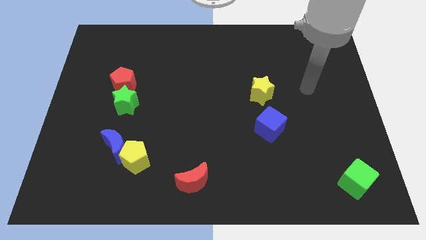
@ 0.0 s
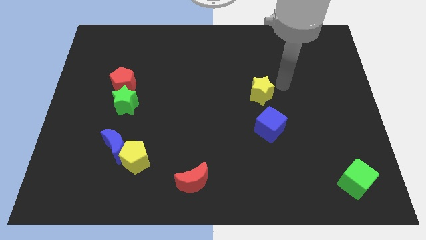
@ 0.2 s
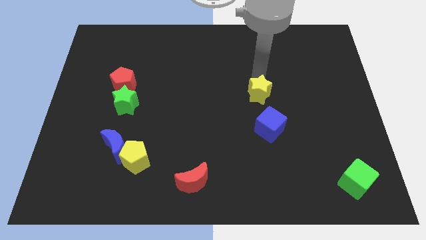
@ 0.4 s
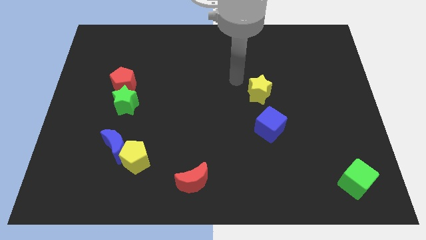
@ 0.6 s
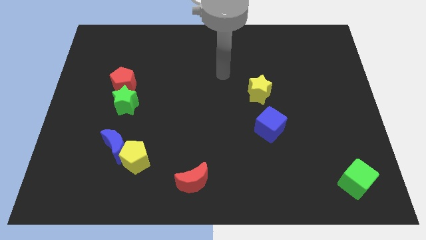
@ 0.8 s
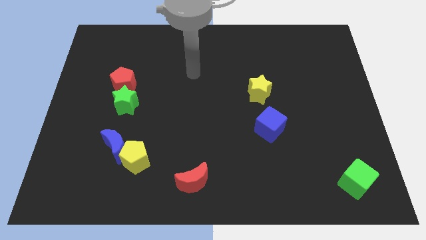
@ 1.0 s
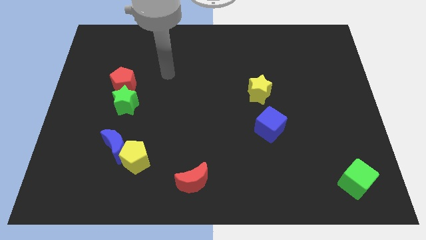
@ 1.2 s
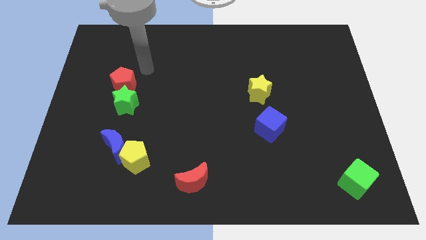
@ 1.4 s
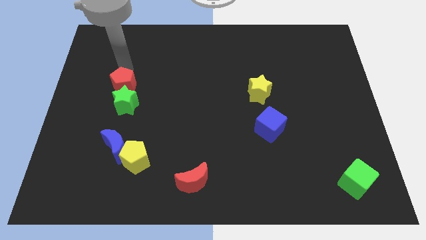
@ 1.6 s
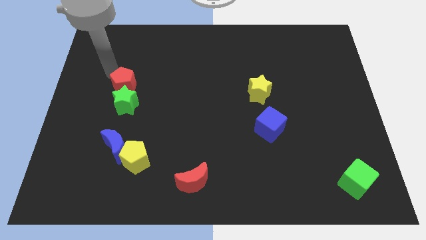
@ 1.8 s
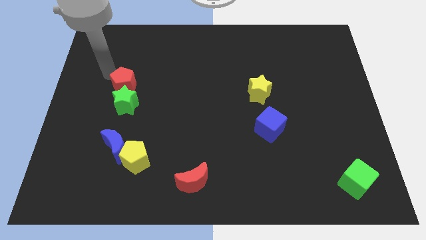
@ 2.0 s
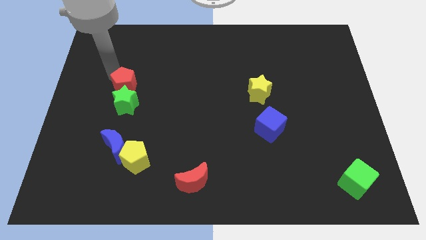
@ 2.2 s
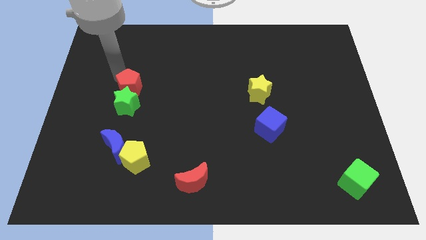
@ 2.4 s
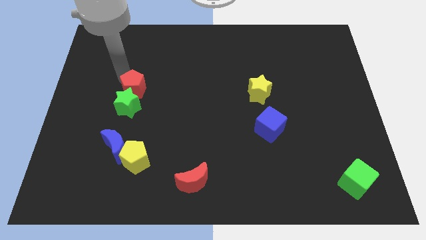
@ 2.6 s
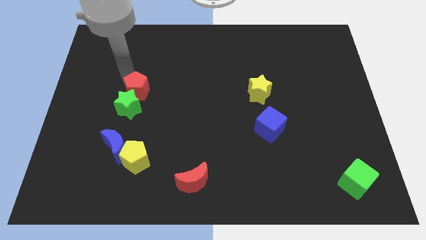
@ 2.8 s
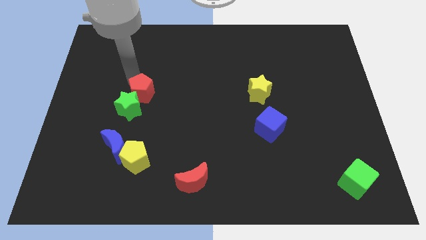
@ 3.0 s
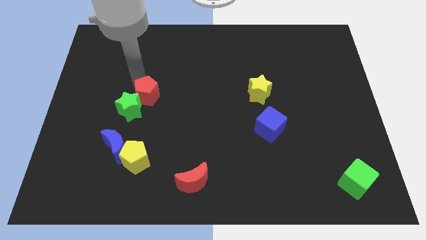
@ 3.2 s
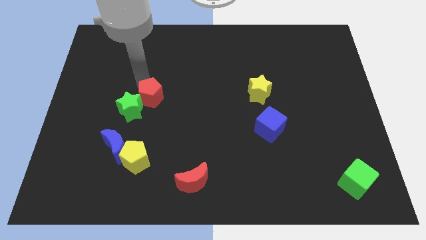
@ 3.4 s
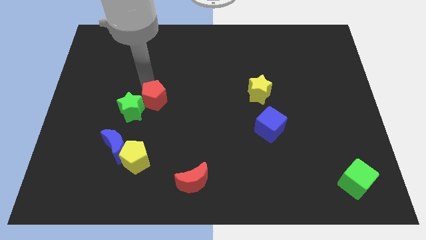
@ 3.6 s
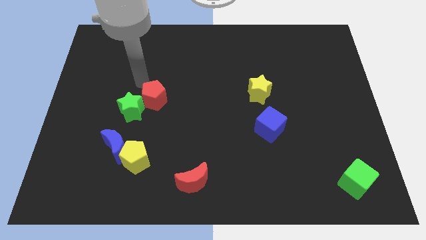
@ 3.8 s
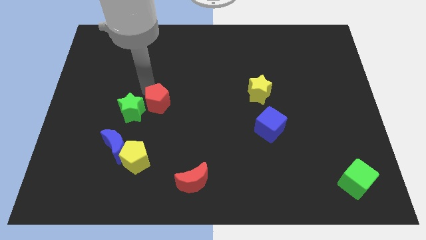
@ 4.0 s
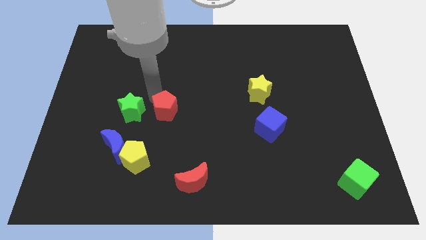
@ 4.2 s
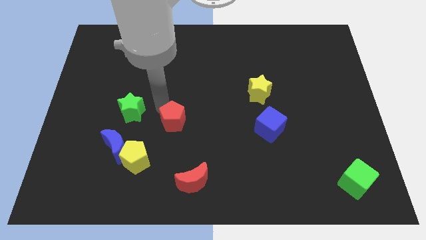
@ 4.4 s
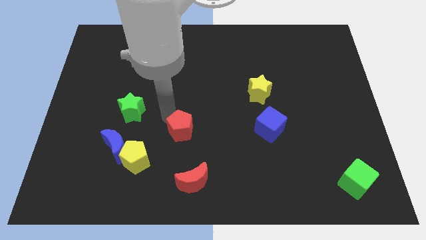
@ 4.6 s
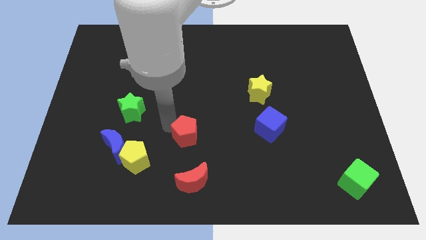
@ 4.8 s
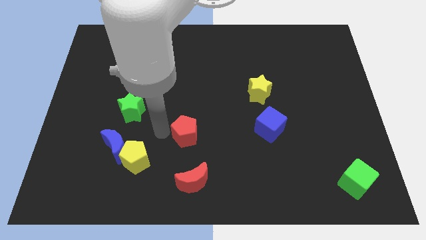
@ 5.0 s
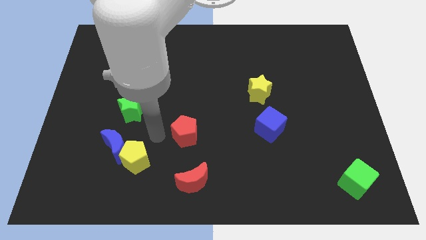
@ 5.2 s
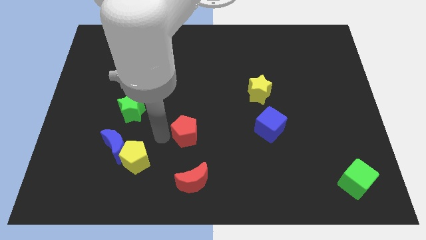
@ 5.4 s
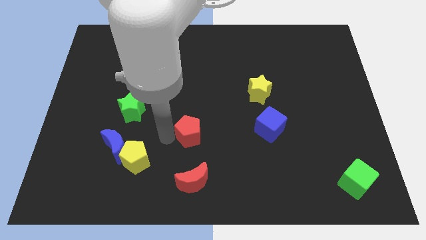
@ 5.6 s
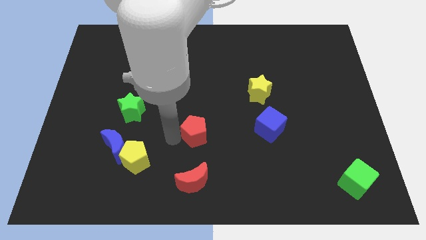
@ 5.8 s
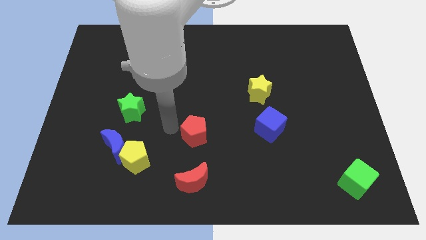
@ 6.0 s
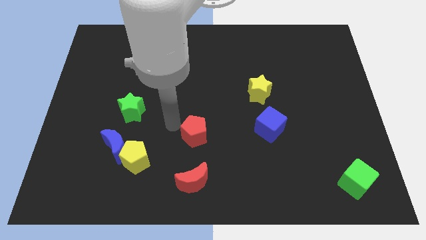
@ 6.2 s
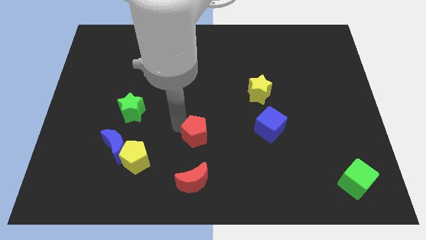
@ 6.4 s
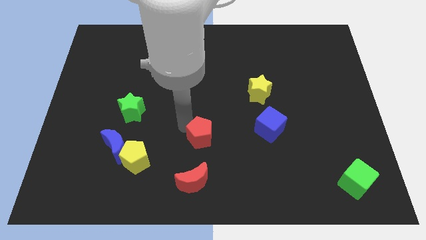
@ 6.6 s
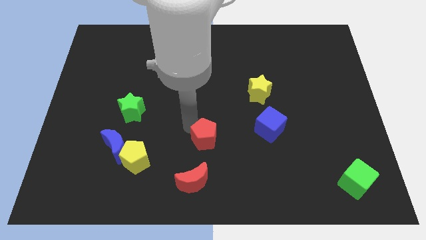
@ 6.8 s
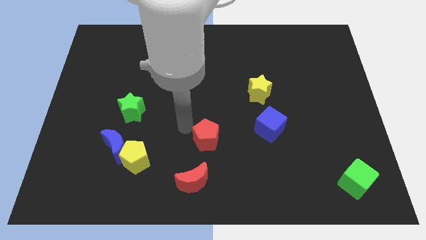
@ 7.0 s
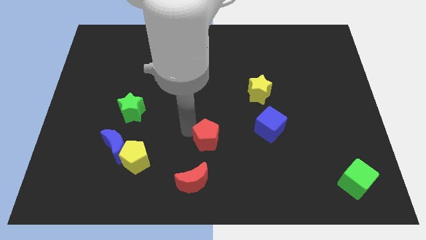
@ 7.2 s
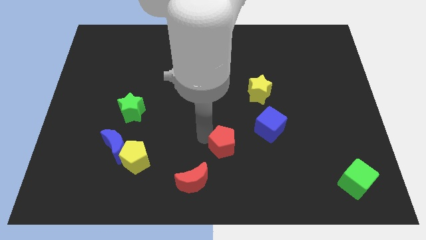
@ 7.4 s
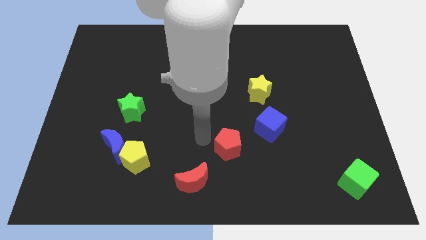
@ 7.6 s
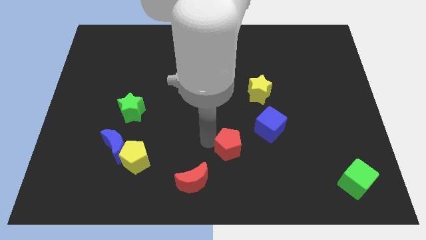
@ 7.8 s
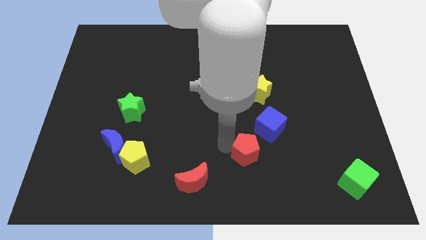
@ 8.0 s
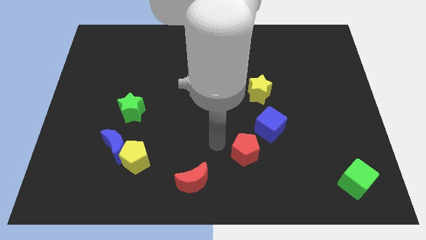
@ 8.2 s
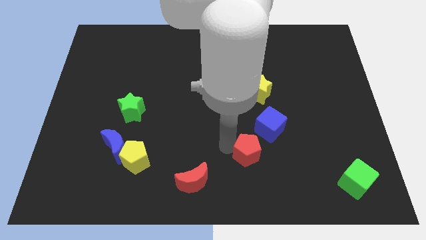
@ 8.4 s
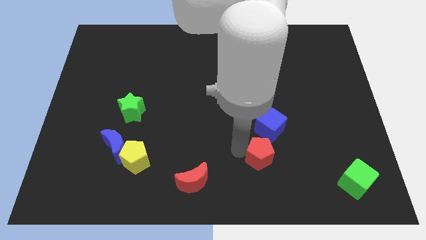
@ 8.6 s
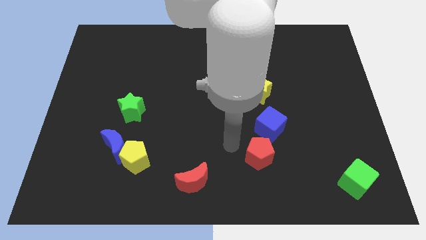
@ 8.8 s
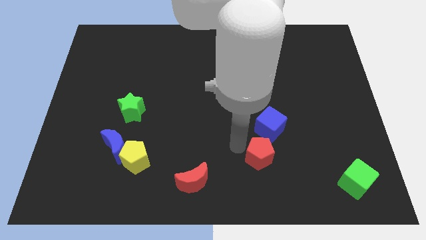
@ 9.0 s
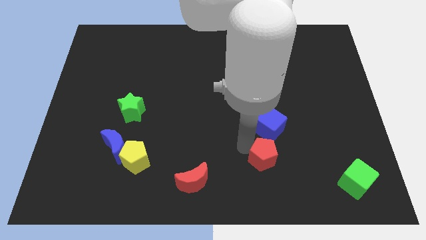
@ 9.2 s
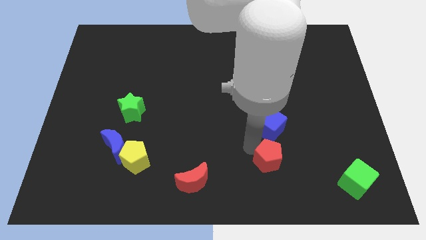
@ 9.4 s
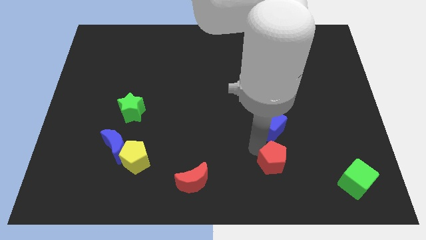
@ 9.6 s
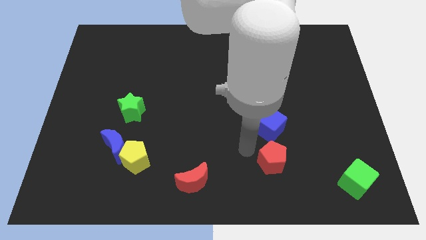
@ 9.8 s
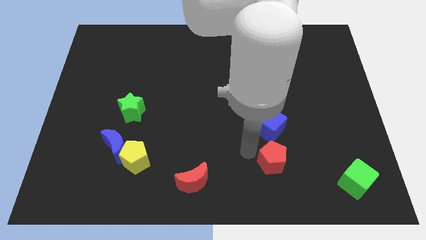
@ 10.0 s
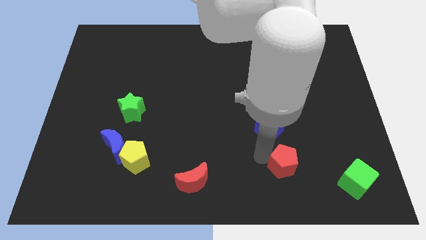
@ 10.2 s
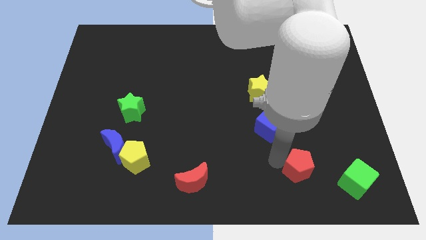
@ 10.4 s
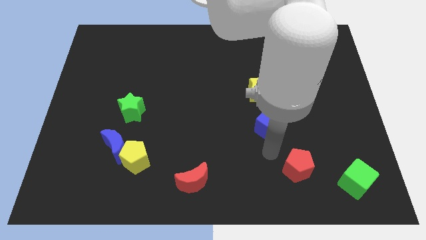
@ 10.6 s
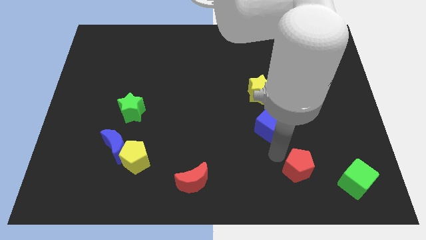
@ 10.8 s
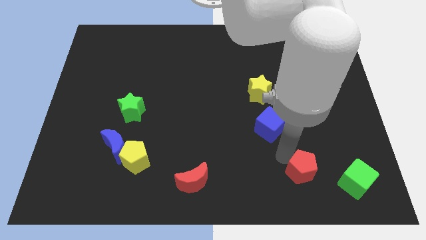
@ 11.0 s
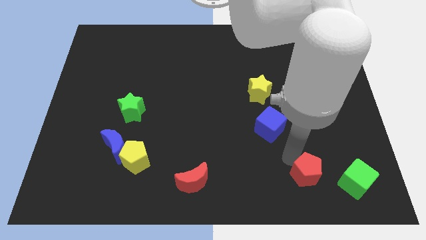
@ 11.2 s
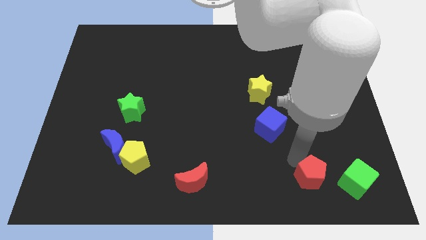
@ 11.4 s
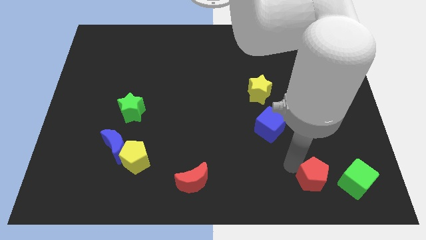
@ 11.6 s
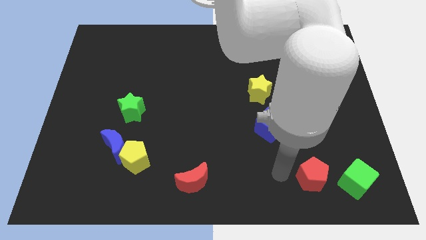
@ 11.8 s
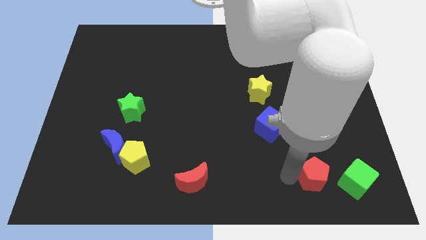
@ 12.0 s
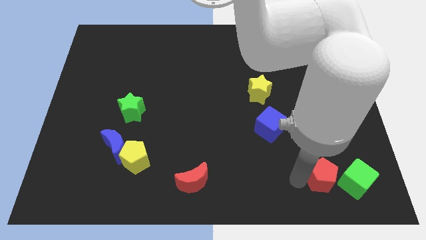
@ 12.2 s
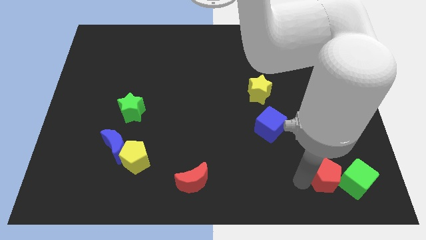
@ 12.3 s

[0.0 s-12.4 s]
move the red pentagon close to the green cube

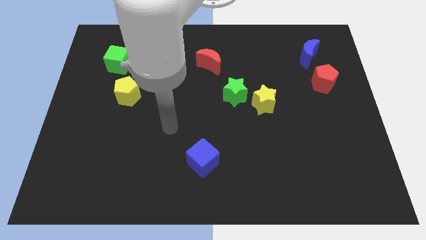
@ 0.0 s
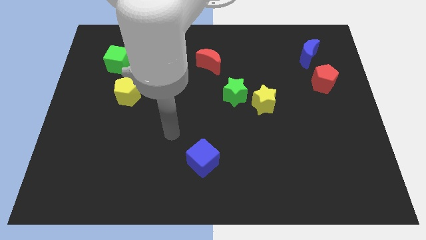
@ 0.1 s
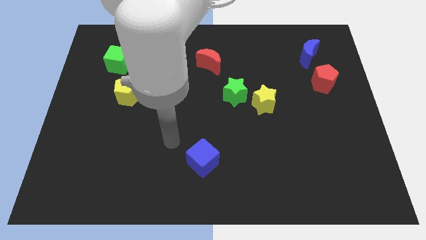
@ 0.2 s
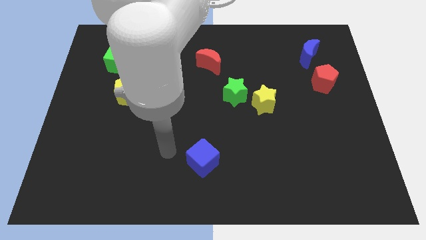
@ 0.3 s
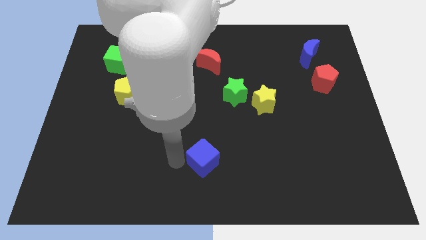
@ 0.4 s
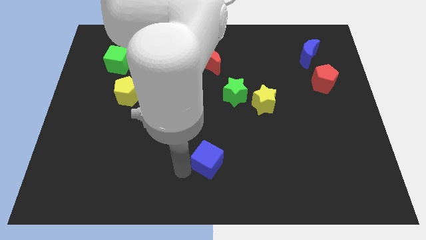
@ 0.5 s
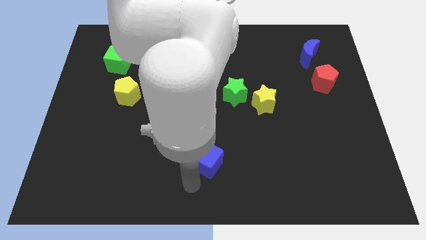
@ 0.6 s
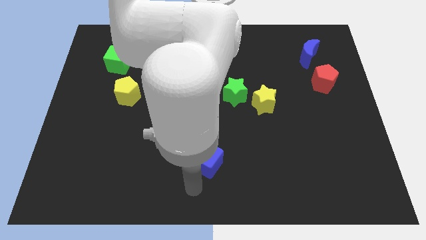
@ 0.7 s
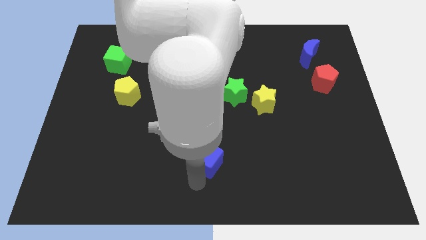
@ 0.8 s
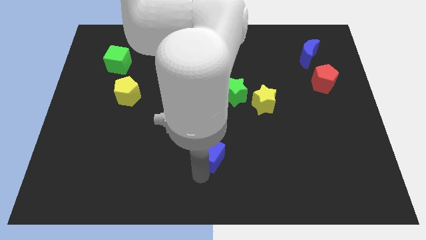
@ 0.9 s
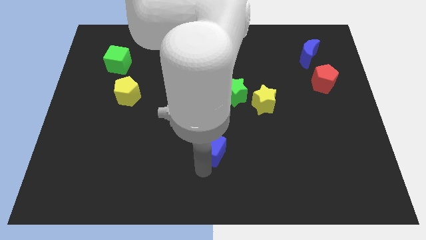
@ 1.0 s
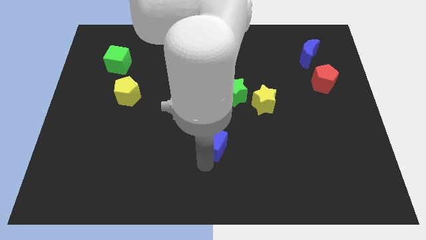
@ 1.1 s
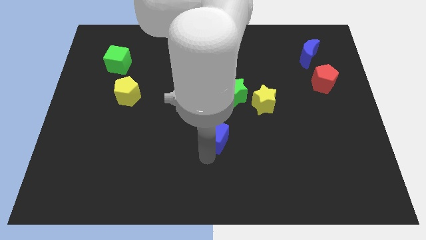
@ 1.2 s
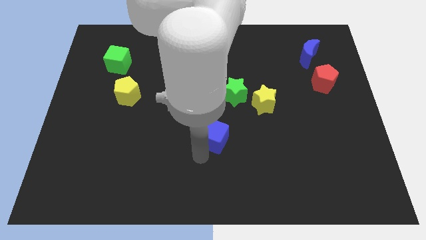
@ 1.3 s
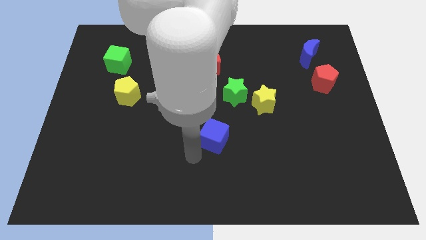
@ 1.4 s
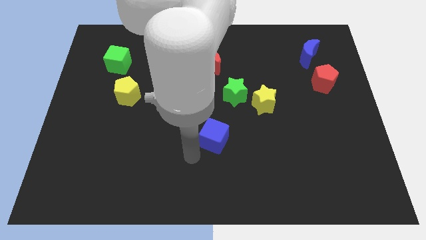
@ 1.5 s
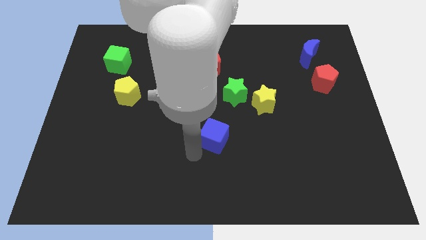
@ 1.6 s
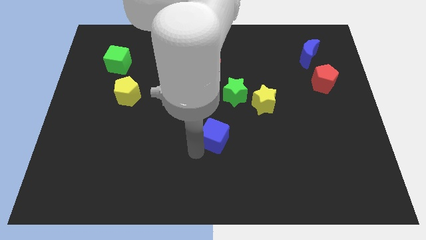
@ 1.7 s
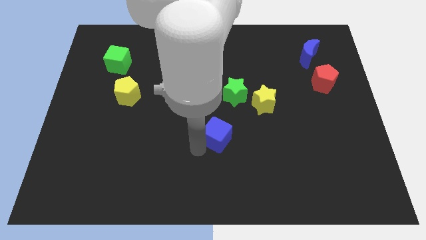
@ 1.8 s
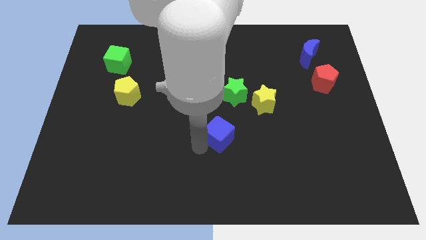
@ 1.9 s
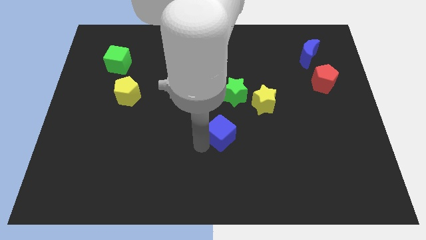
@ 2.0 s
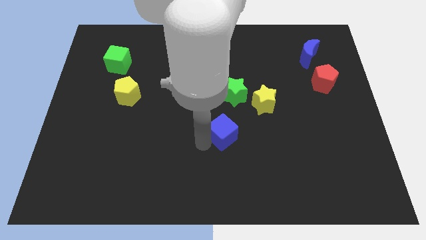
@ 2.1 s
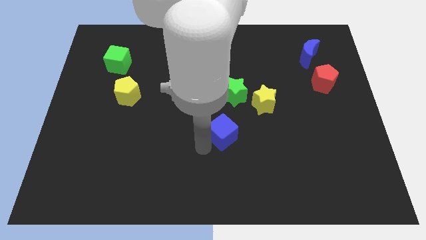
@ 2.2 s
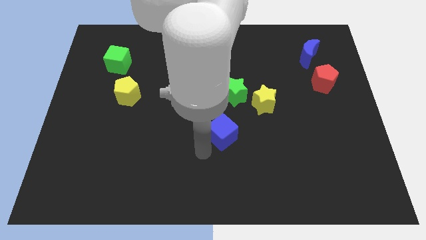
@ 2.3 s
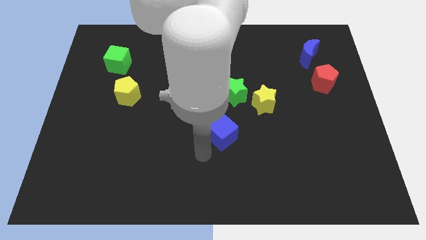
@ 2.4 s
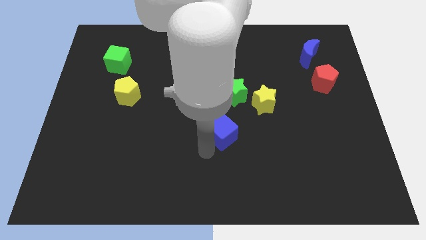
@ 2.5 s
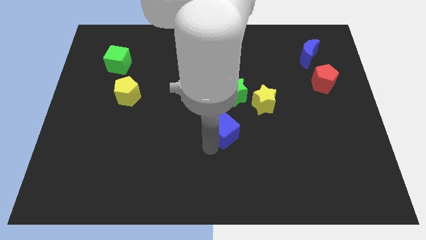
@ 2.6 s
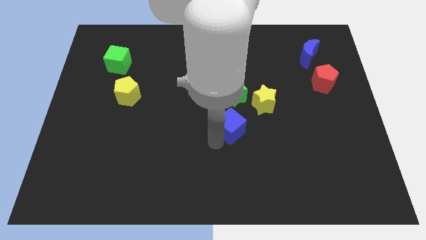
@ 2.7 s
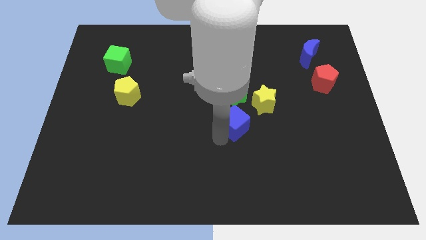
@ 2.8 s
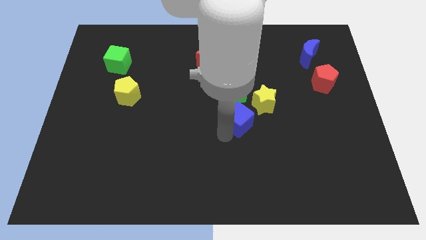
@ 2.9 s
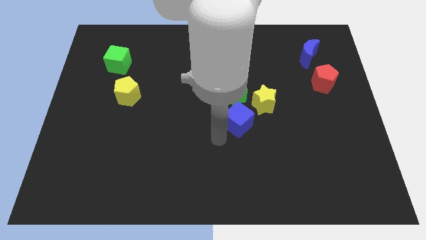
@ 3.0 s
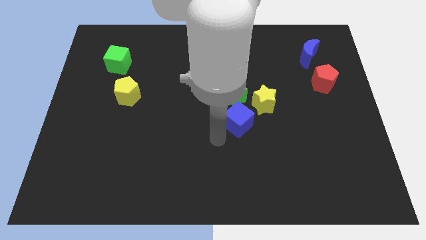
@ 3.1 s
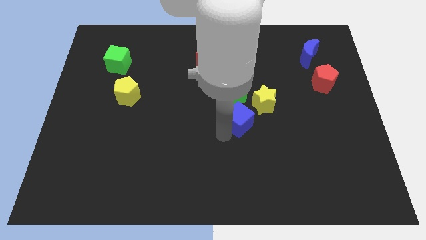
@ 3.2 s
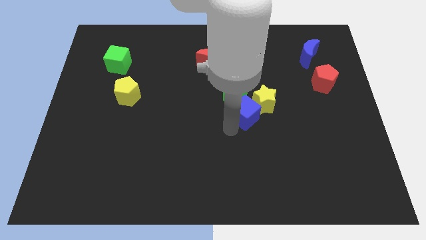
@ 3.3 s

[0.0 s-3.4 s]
push the blue cube next to the yellow star
